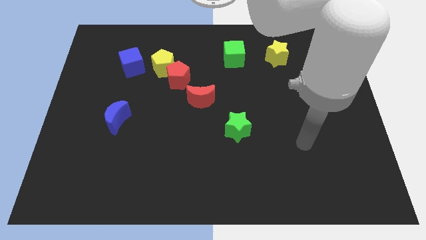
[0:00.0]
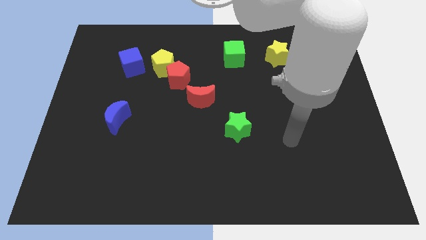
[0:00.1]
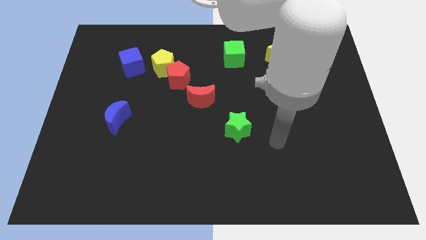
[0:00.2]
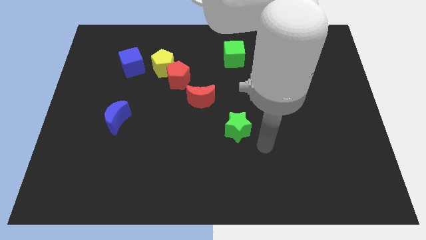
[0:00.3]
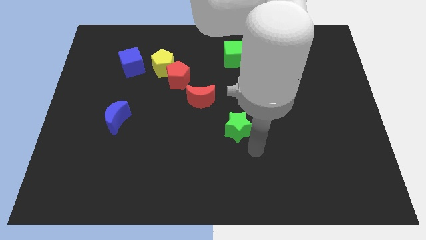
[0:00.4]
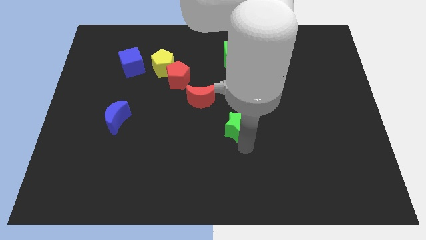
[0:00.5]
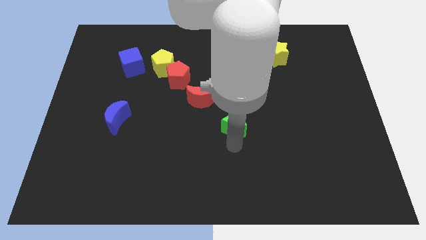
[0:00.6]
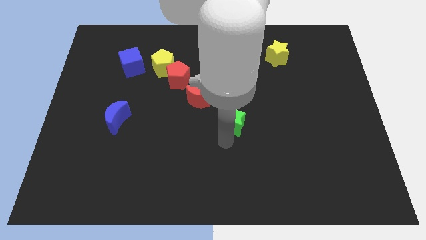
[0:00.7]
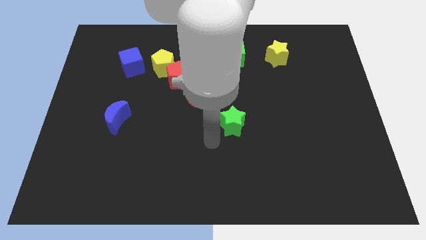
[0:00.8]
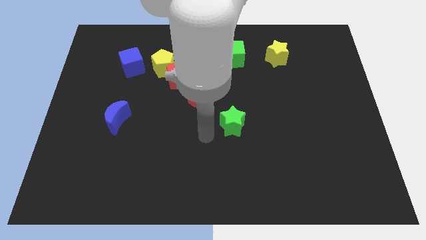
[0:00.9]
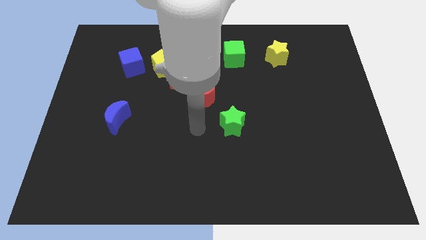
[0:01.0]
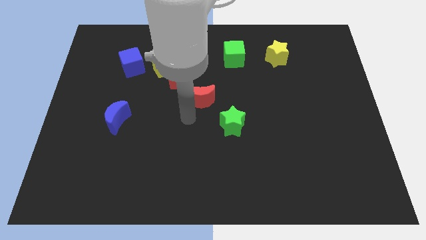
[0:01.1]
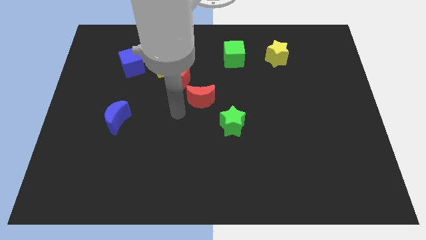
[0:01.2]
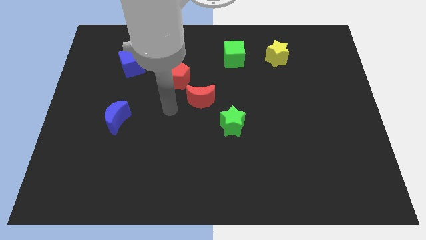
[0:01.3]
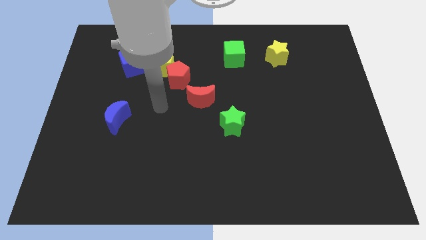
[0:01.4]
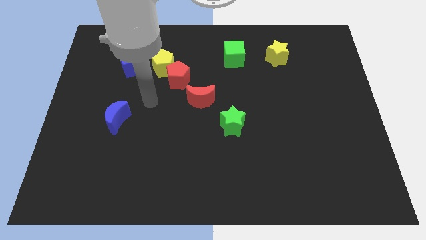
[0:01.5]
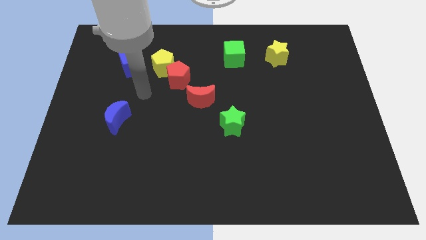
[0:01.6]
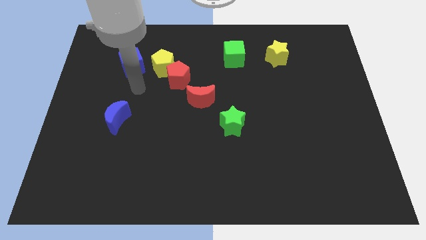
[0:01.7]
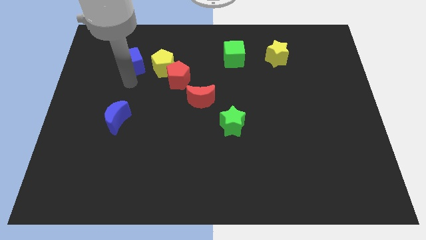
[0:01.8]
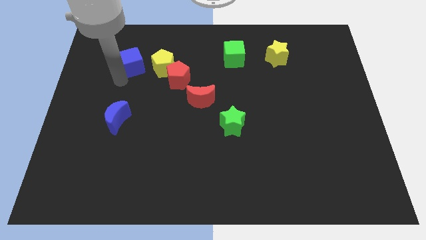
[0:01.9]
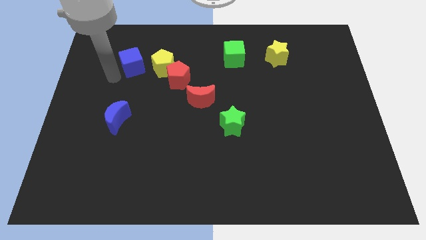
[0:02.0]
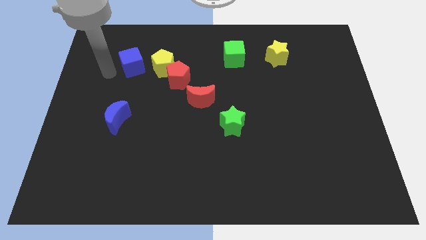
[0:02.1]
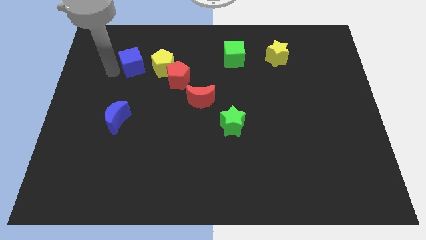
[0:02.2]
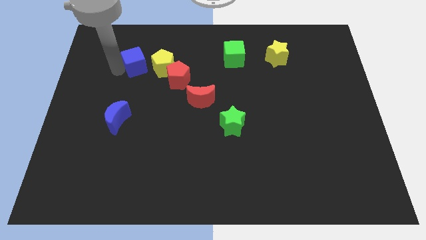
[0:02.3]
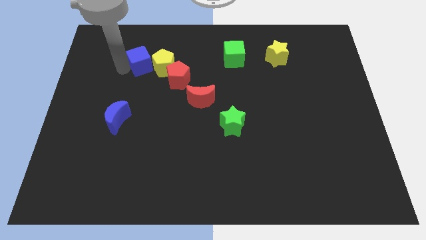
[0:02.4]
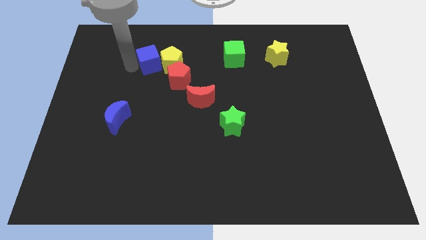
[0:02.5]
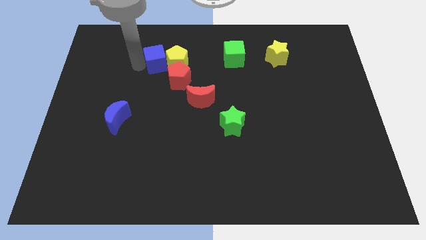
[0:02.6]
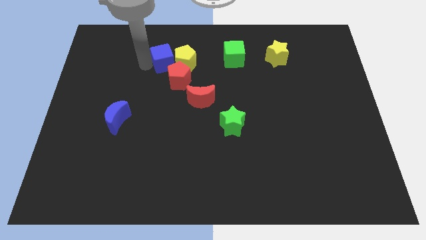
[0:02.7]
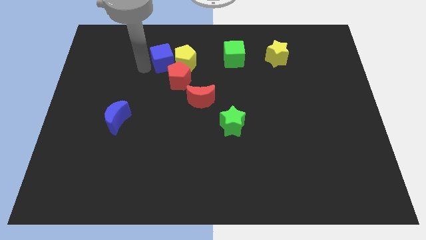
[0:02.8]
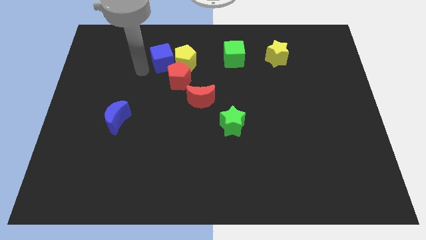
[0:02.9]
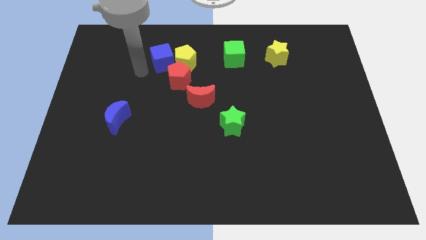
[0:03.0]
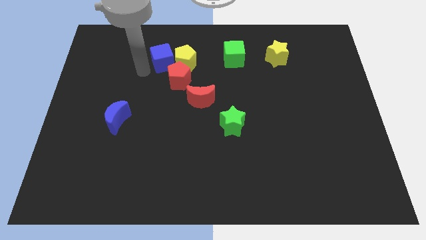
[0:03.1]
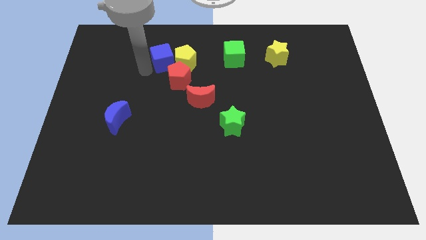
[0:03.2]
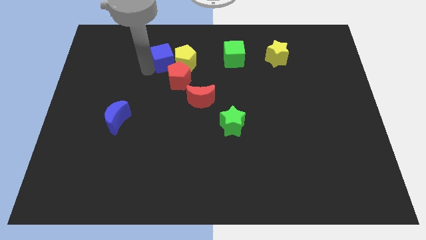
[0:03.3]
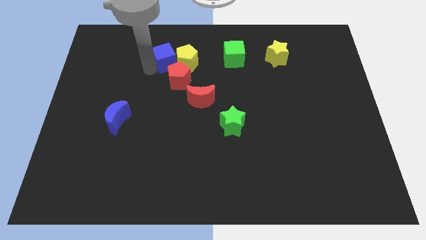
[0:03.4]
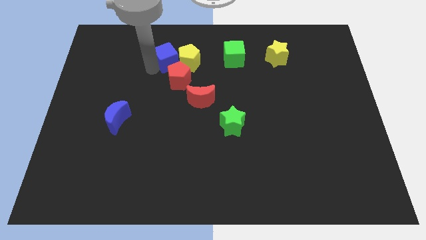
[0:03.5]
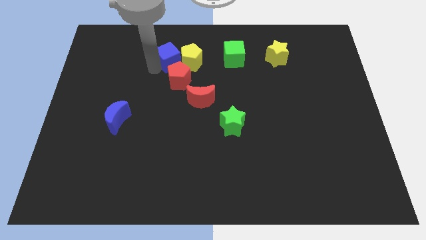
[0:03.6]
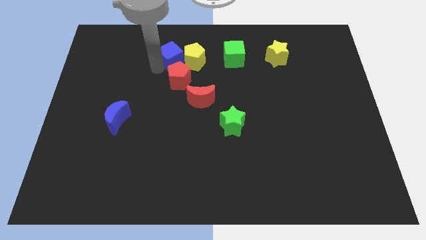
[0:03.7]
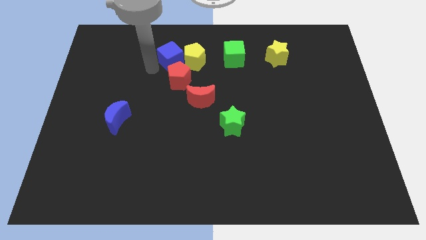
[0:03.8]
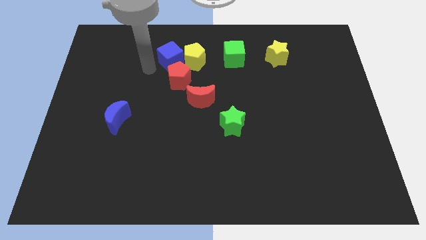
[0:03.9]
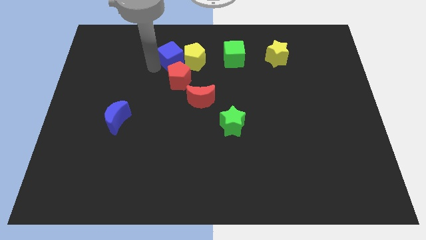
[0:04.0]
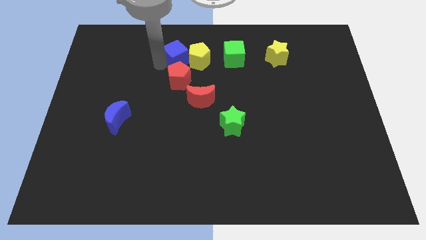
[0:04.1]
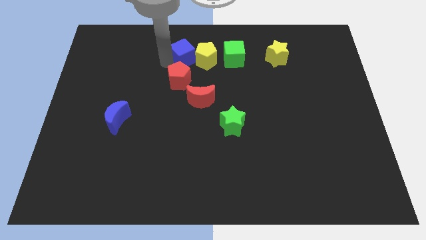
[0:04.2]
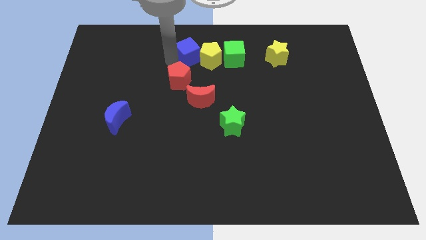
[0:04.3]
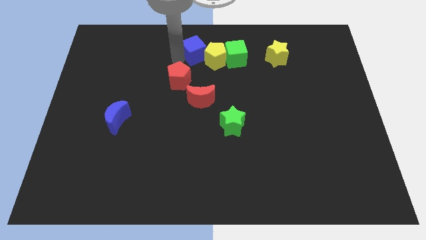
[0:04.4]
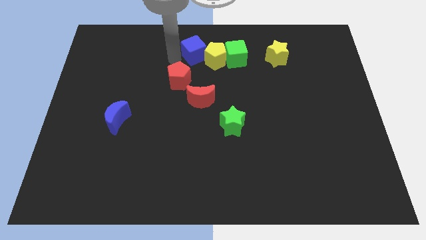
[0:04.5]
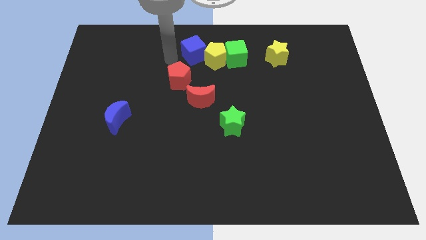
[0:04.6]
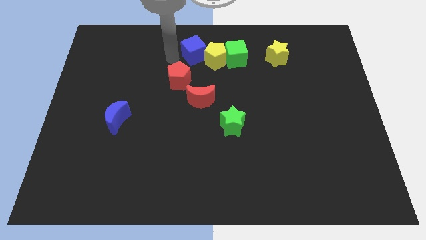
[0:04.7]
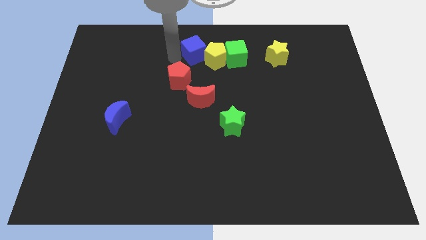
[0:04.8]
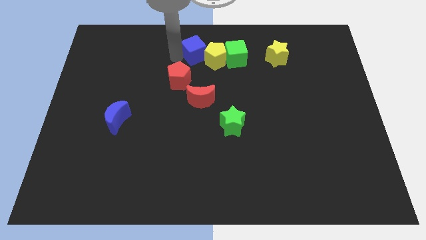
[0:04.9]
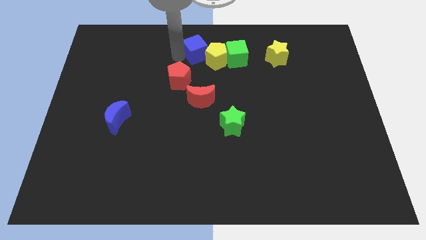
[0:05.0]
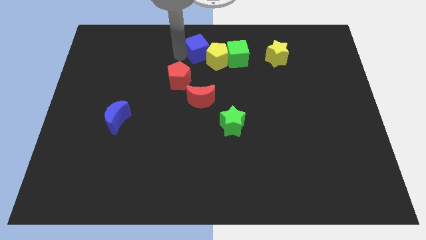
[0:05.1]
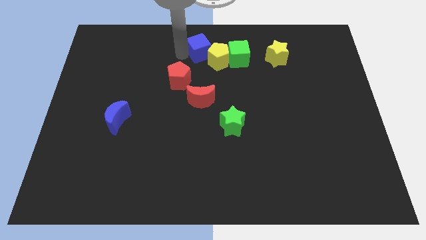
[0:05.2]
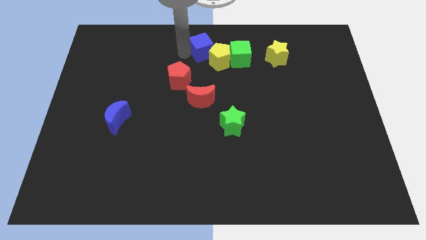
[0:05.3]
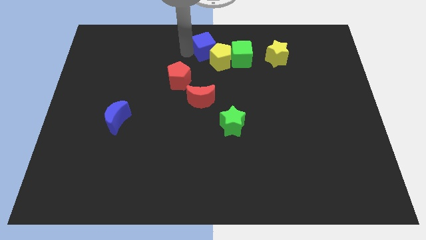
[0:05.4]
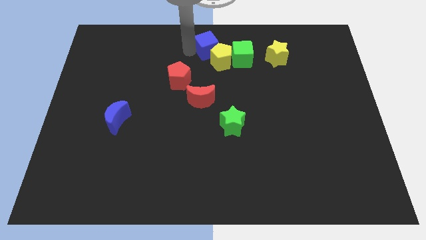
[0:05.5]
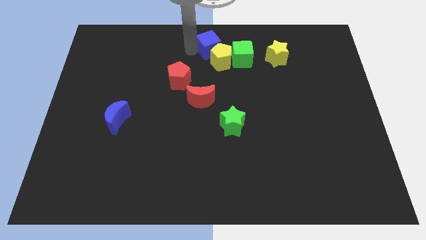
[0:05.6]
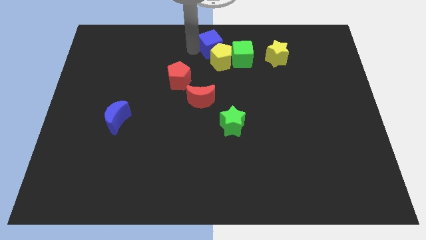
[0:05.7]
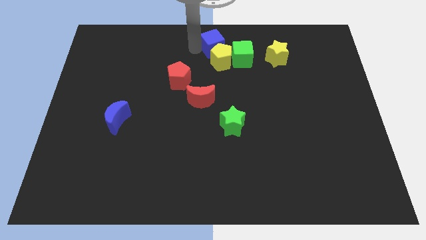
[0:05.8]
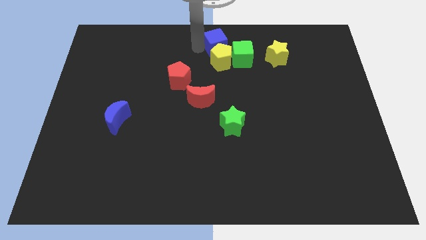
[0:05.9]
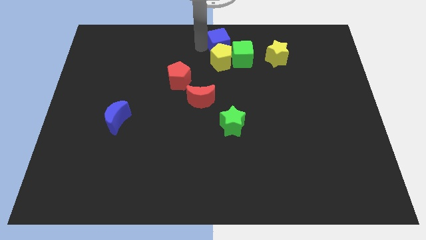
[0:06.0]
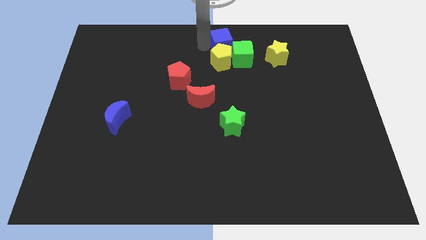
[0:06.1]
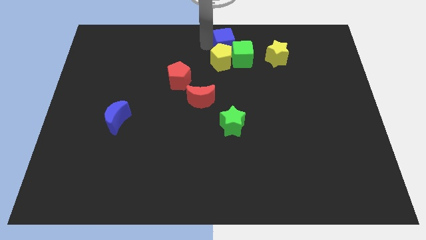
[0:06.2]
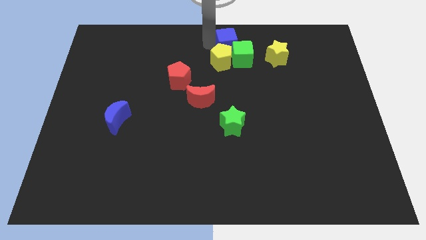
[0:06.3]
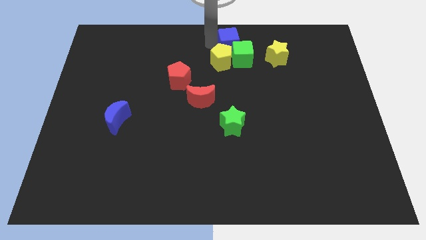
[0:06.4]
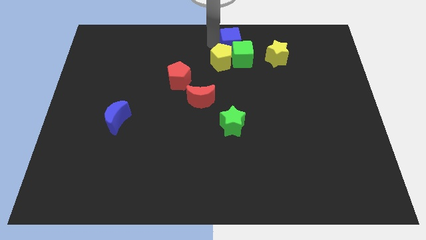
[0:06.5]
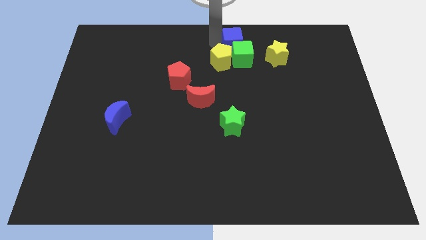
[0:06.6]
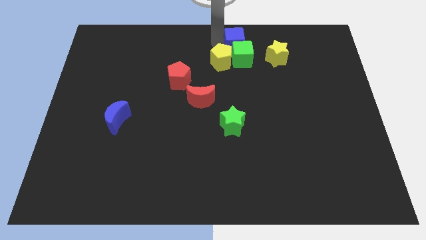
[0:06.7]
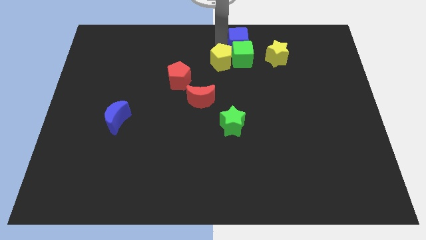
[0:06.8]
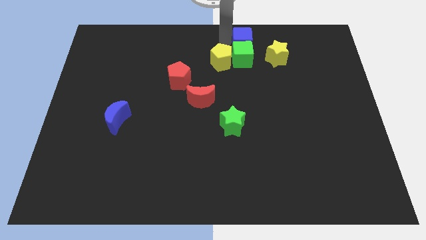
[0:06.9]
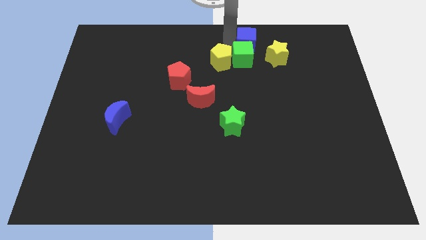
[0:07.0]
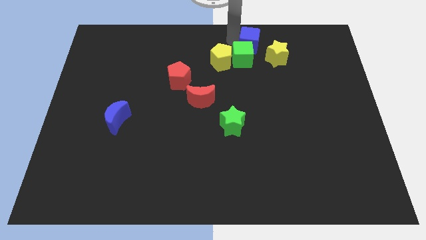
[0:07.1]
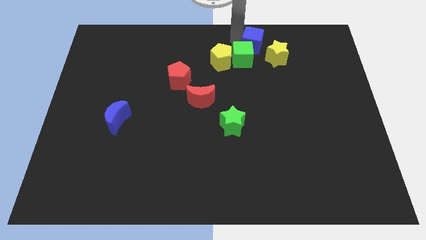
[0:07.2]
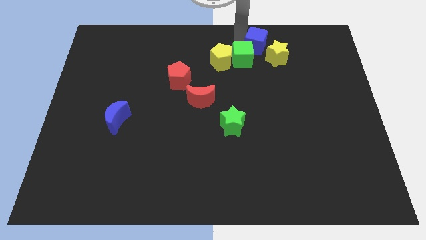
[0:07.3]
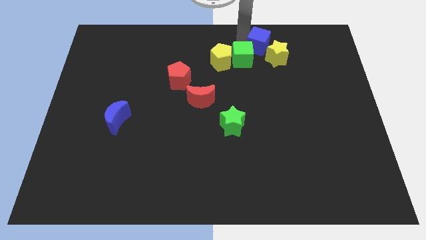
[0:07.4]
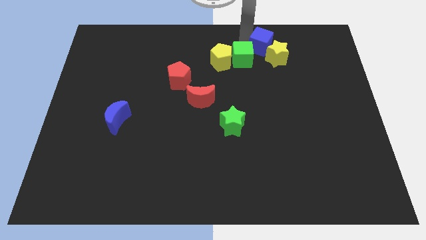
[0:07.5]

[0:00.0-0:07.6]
put the blue cube to the yellow star
